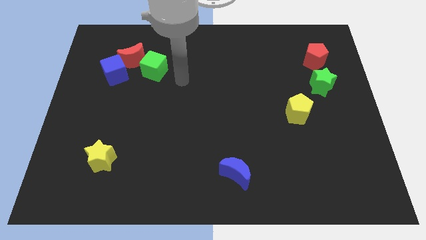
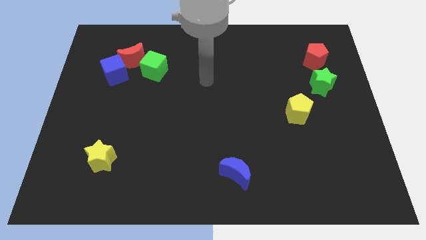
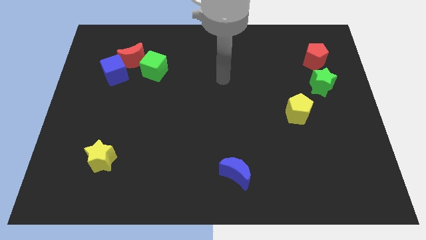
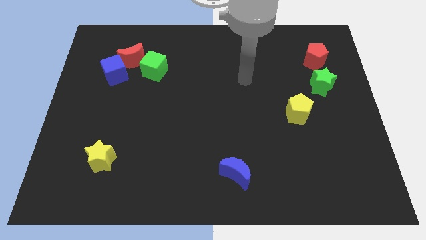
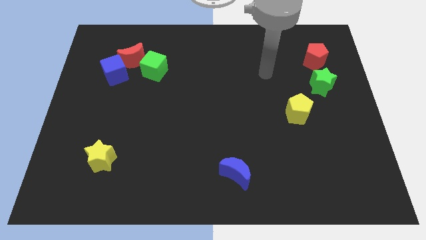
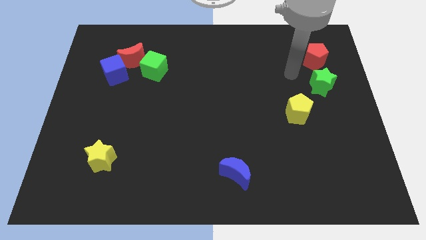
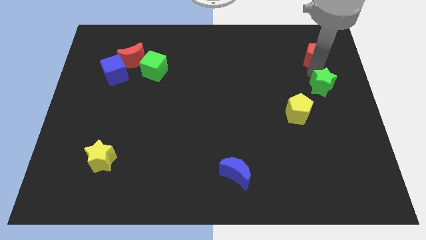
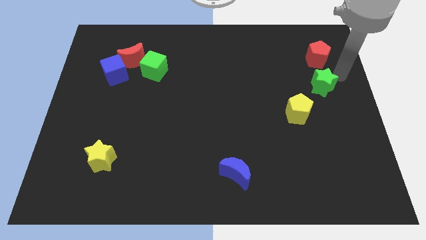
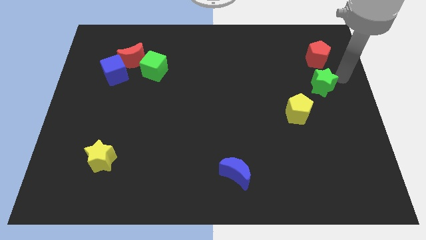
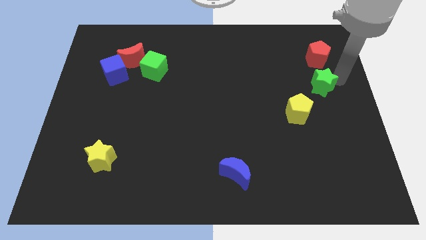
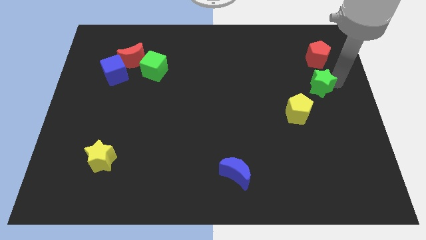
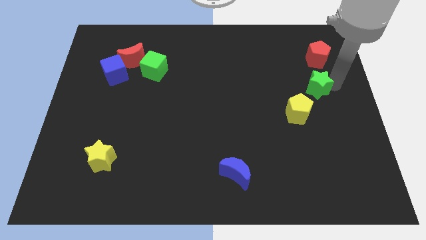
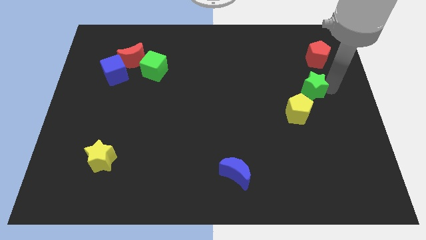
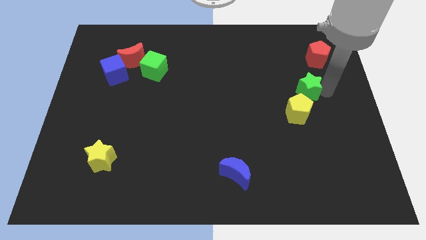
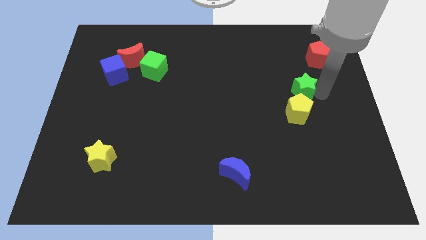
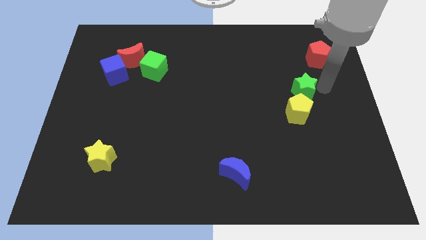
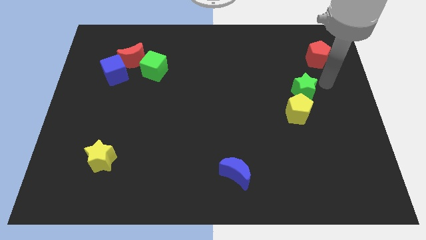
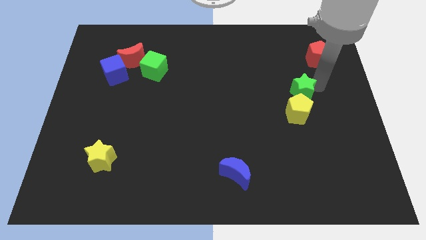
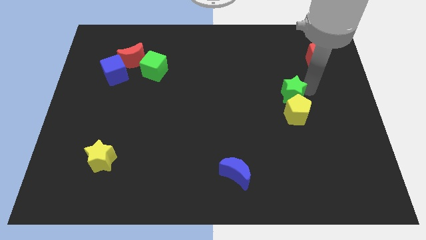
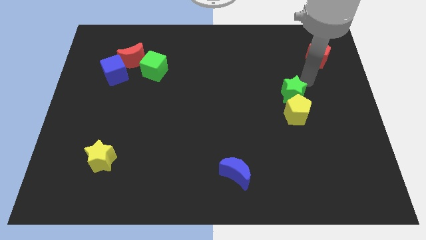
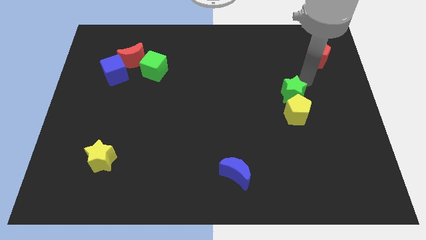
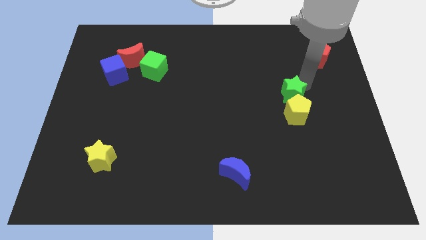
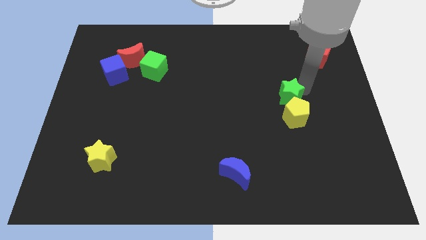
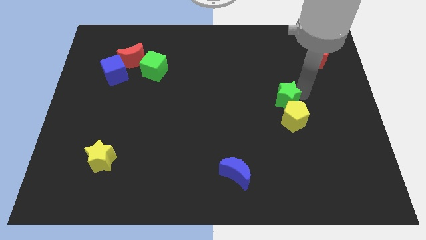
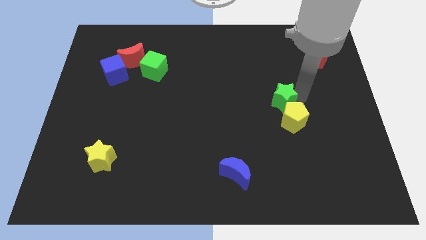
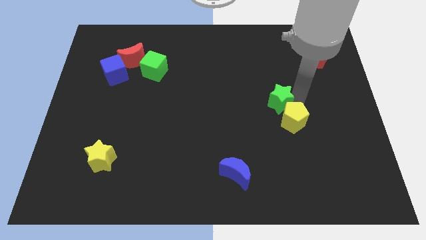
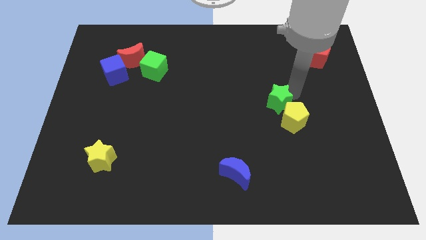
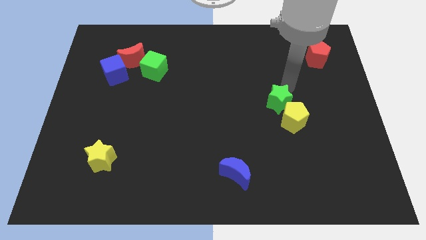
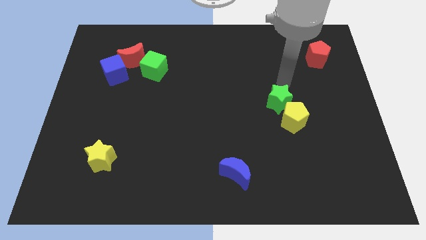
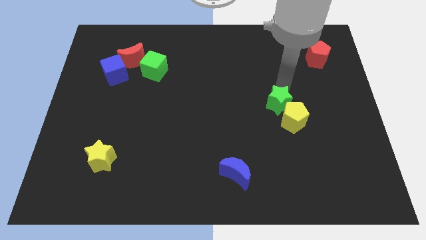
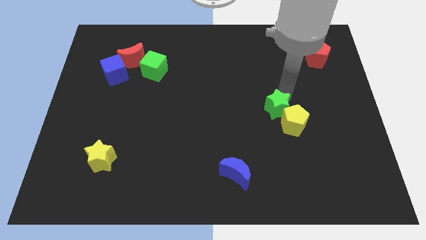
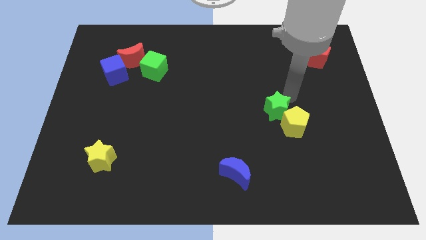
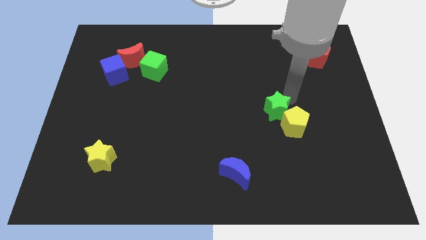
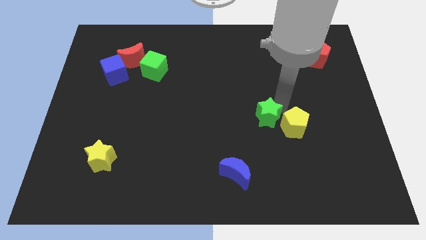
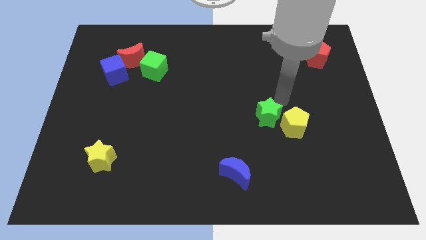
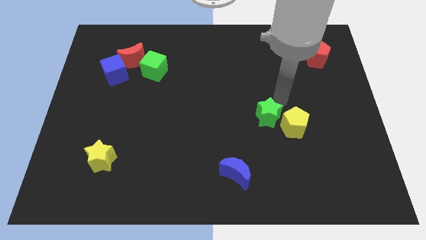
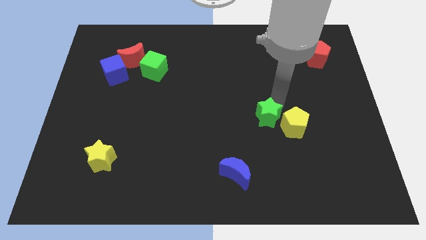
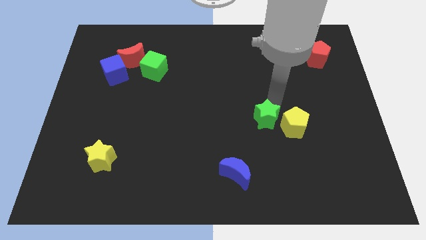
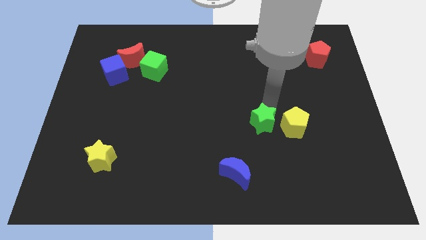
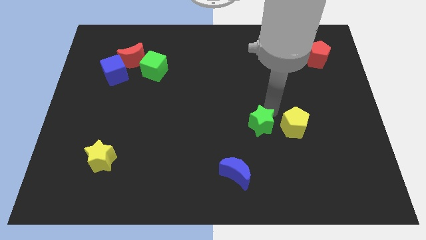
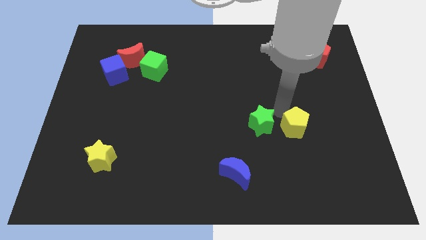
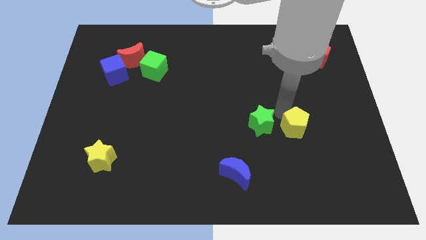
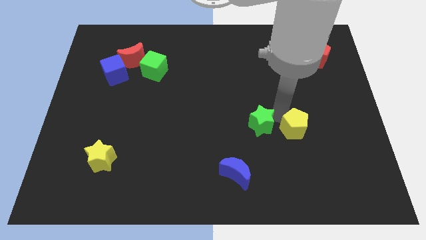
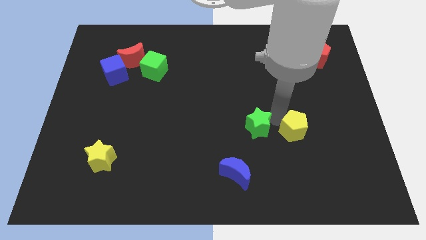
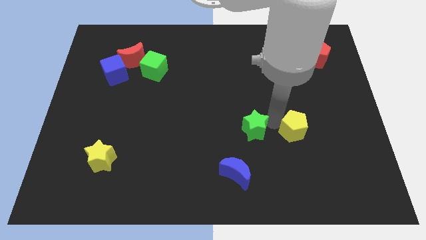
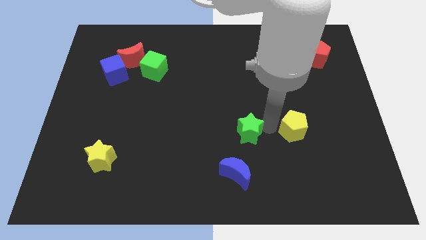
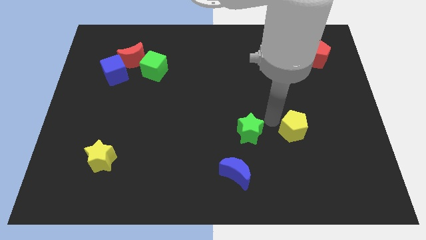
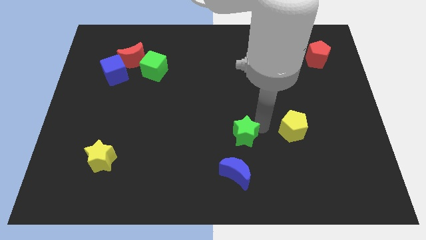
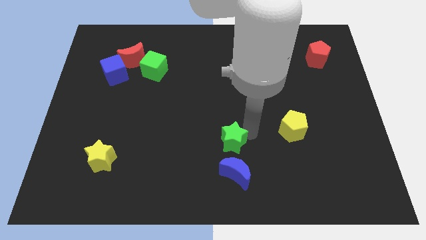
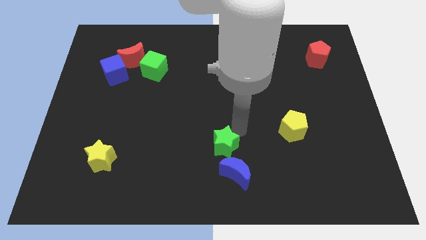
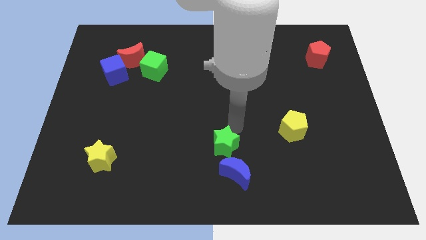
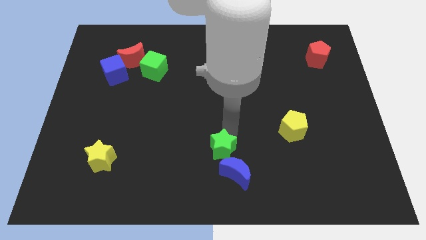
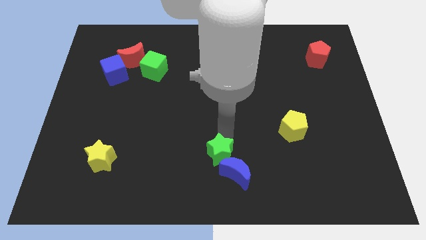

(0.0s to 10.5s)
put the green star to the bottom
